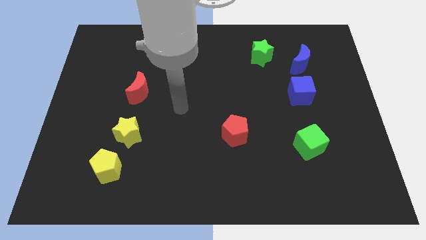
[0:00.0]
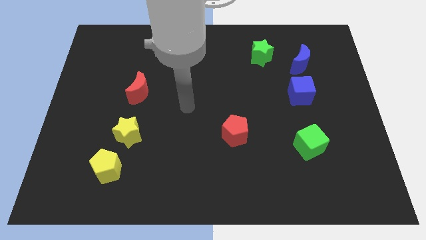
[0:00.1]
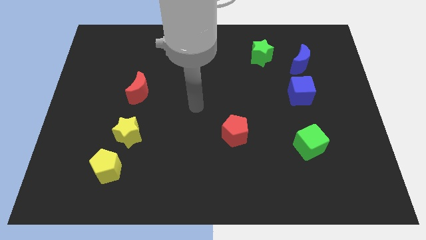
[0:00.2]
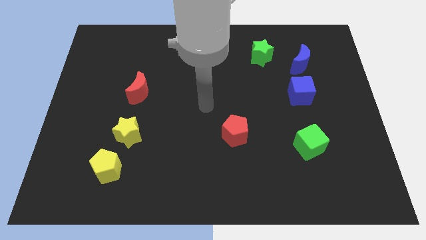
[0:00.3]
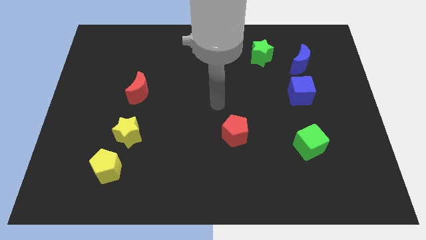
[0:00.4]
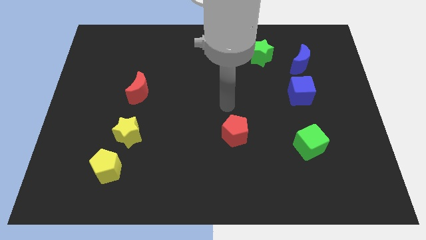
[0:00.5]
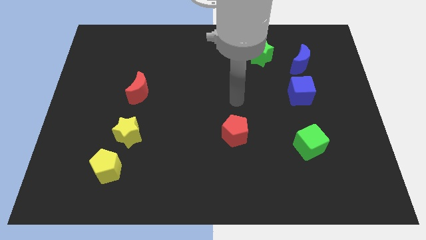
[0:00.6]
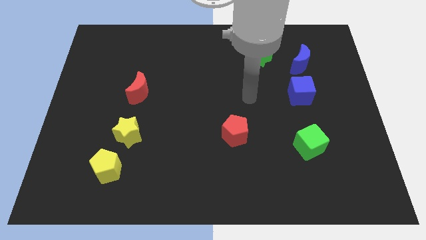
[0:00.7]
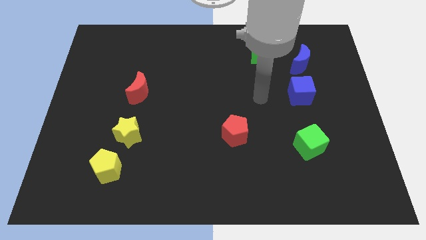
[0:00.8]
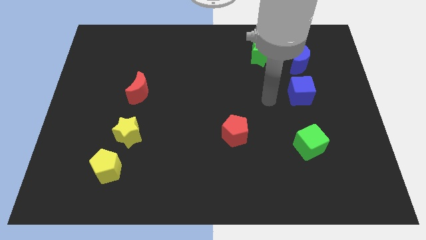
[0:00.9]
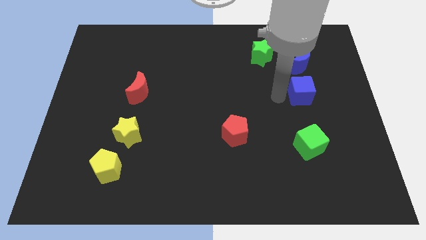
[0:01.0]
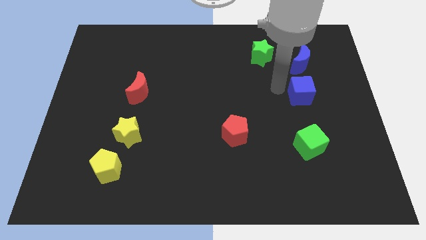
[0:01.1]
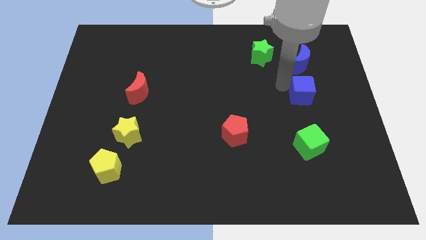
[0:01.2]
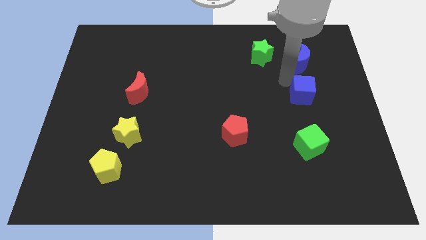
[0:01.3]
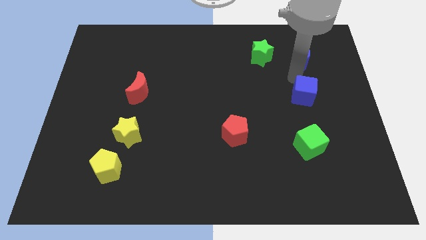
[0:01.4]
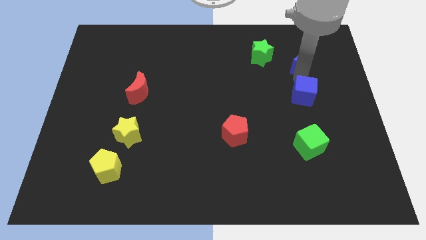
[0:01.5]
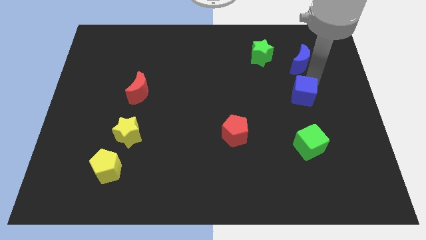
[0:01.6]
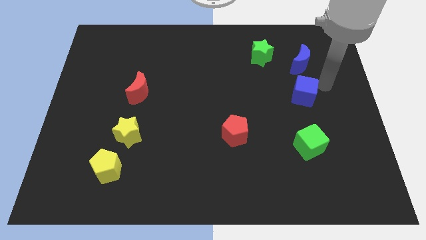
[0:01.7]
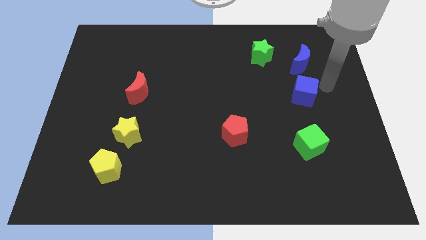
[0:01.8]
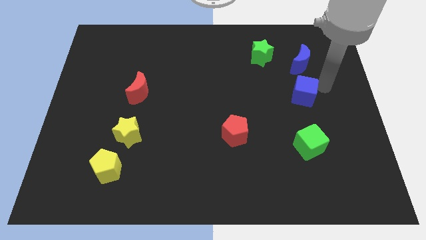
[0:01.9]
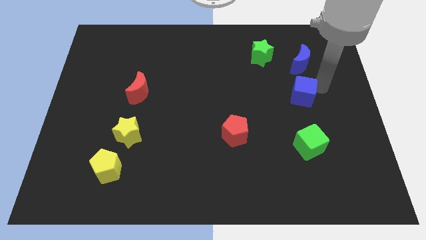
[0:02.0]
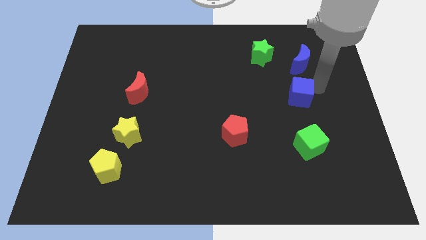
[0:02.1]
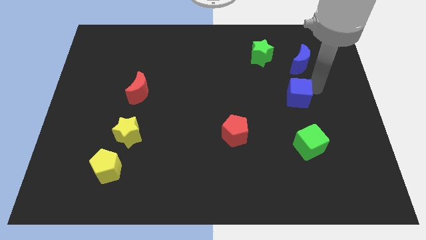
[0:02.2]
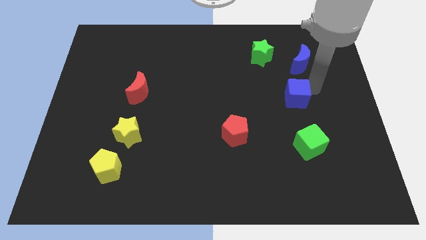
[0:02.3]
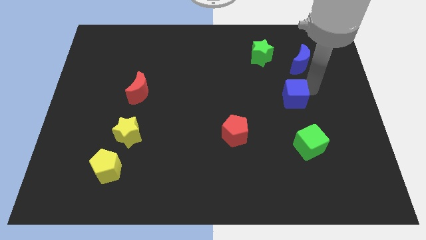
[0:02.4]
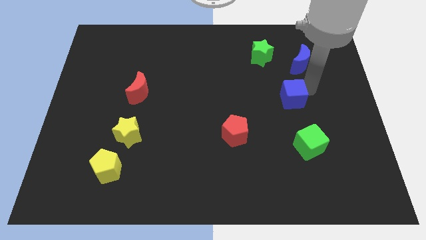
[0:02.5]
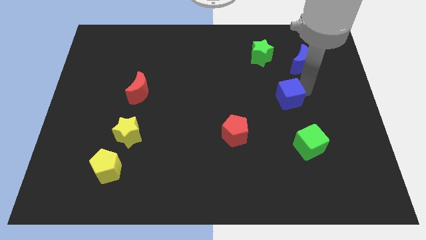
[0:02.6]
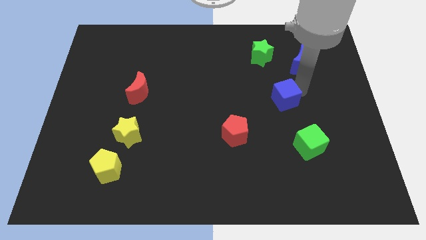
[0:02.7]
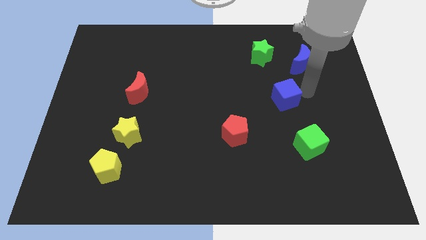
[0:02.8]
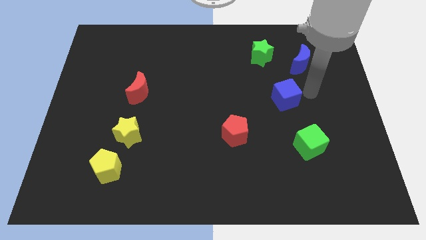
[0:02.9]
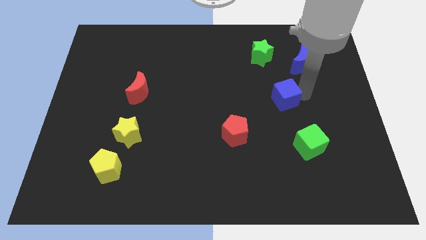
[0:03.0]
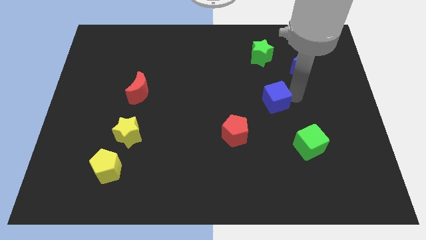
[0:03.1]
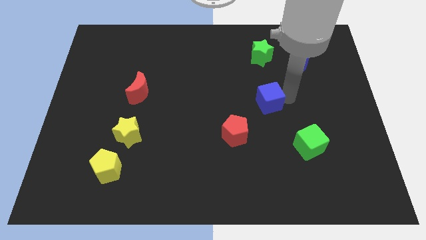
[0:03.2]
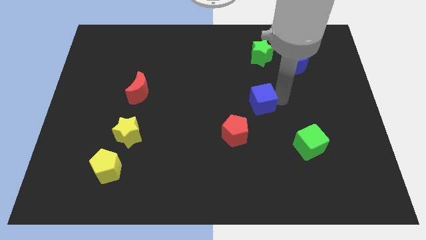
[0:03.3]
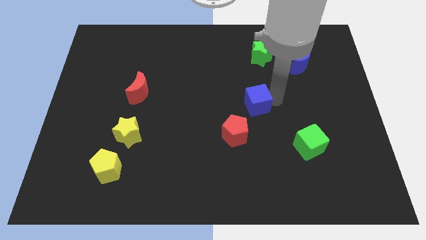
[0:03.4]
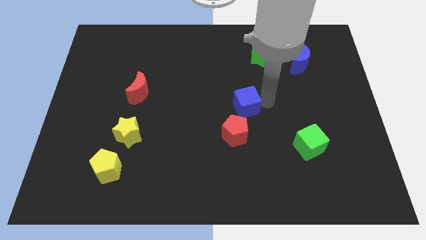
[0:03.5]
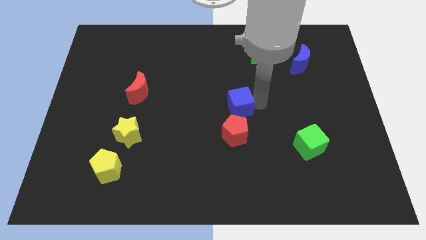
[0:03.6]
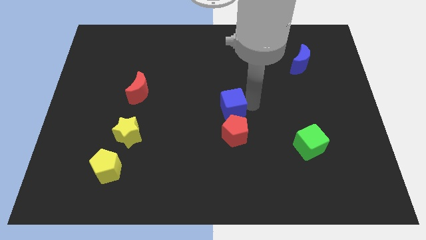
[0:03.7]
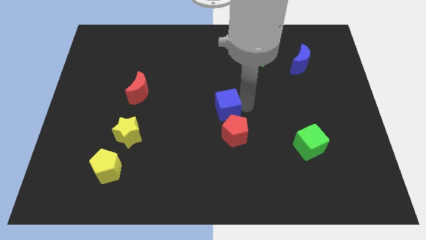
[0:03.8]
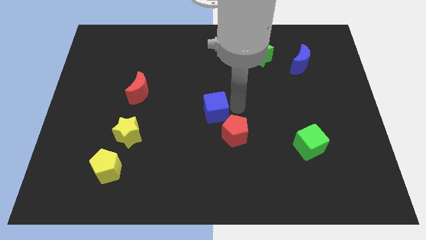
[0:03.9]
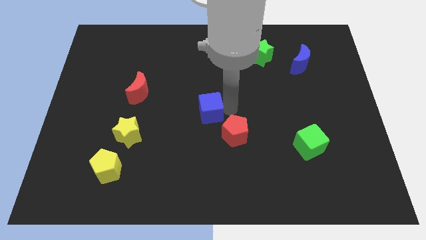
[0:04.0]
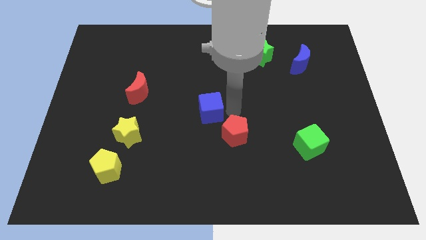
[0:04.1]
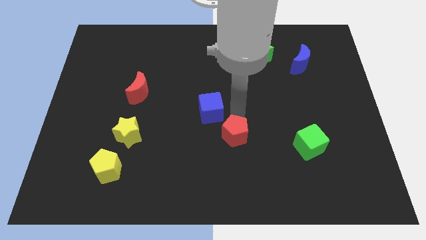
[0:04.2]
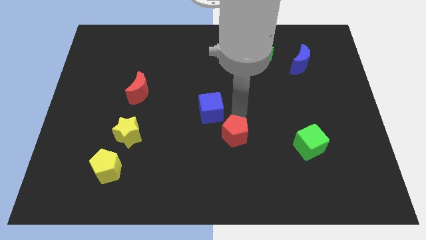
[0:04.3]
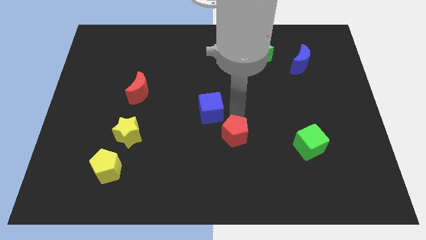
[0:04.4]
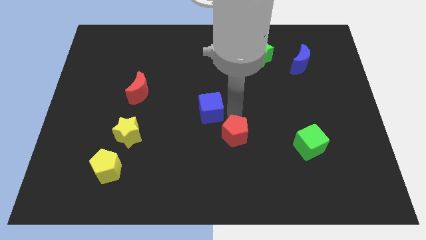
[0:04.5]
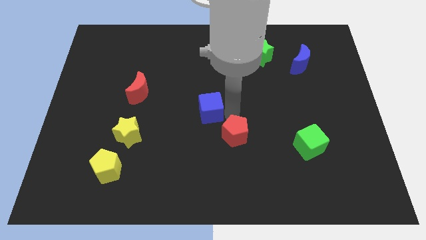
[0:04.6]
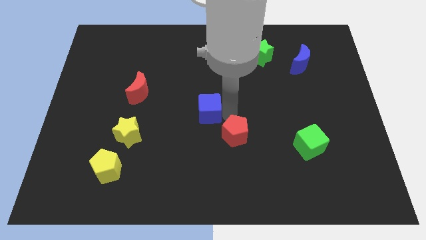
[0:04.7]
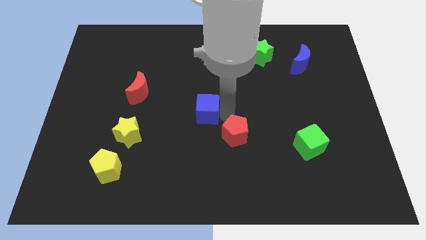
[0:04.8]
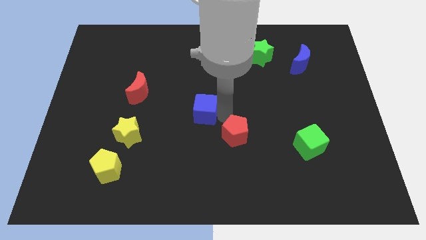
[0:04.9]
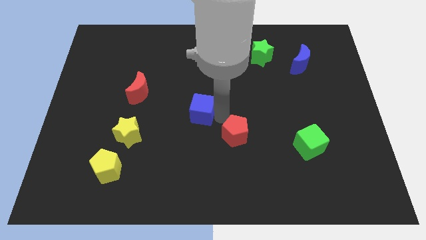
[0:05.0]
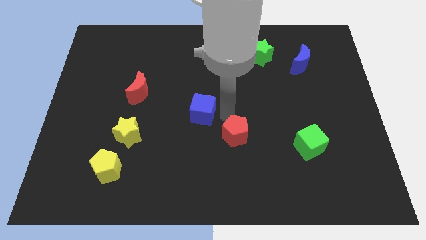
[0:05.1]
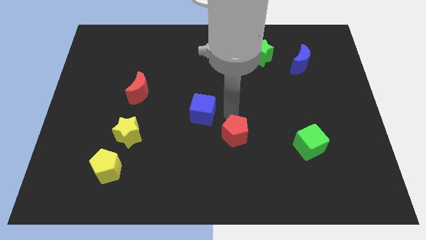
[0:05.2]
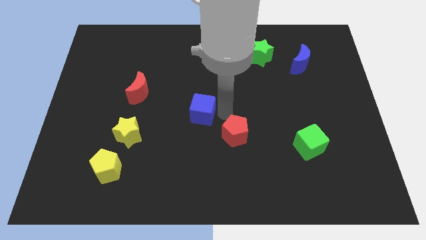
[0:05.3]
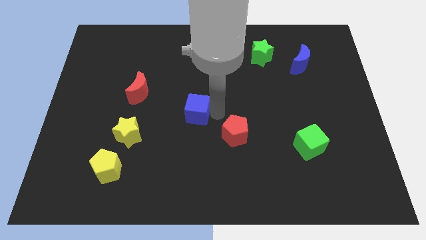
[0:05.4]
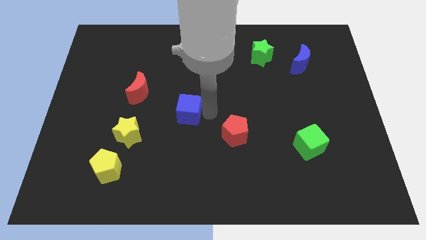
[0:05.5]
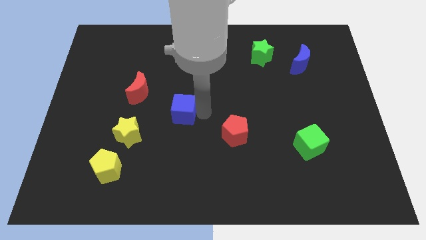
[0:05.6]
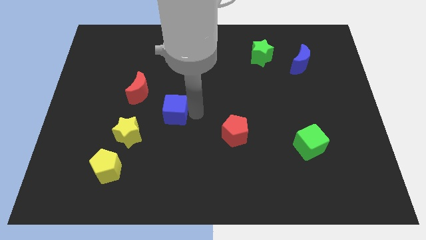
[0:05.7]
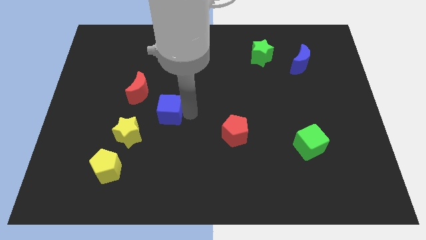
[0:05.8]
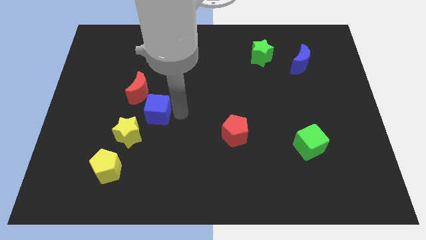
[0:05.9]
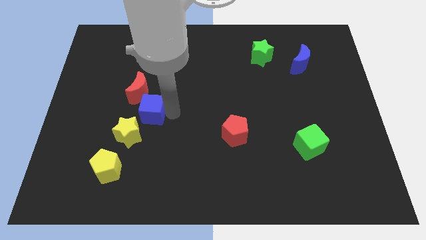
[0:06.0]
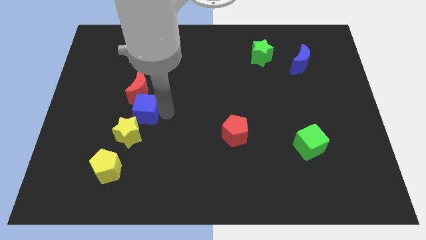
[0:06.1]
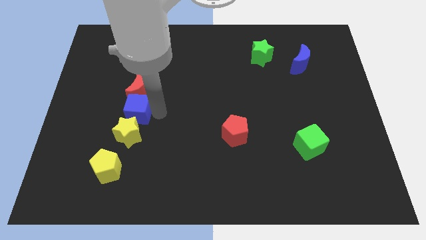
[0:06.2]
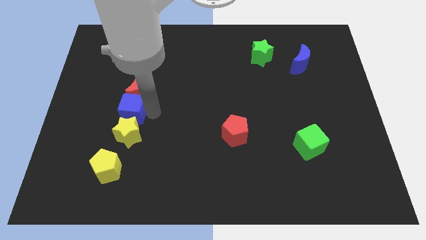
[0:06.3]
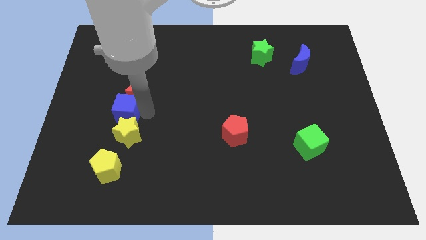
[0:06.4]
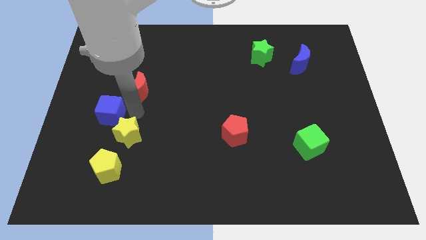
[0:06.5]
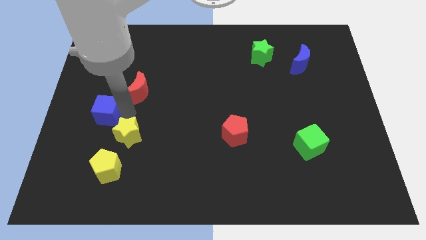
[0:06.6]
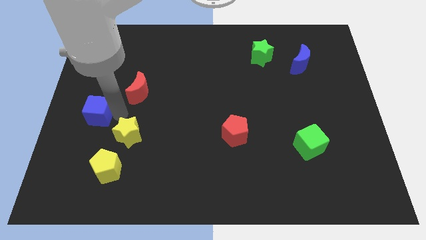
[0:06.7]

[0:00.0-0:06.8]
slide the blue cube to the center left
